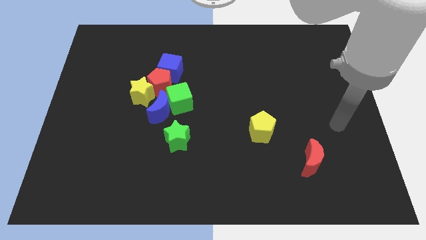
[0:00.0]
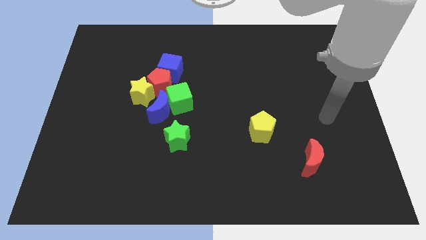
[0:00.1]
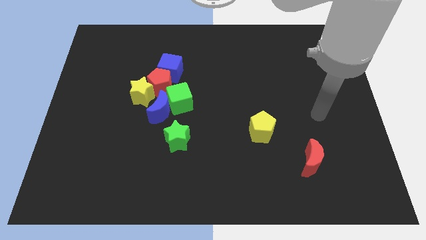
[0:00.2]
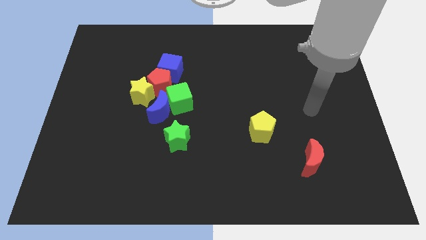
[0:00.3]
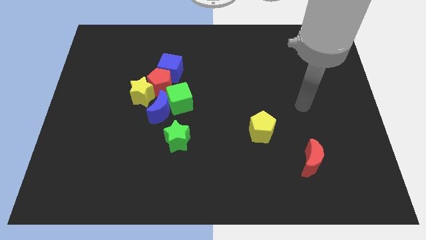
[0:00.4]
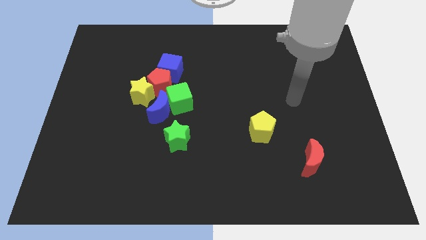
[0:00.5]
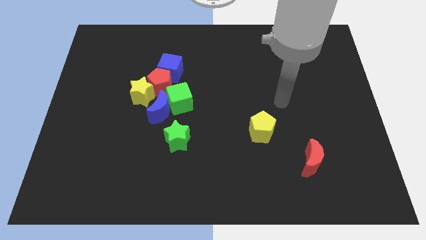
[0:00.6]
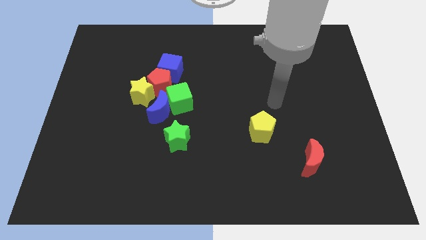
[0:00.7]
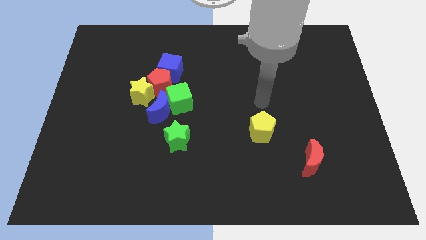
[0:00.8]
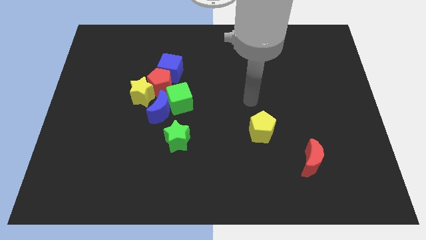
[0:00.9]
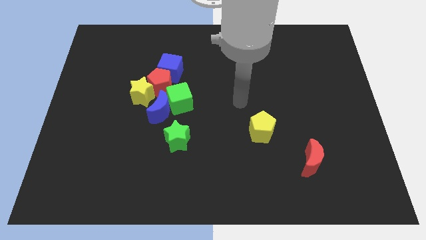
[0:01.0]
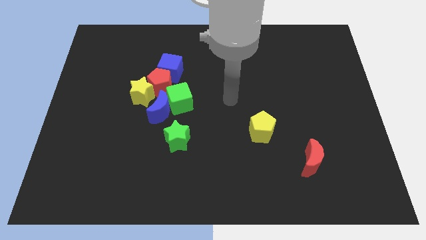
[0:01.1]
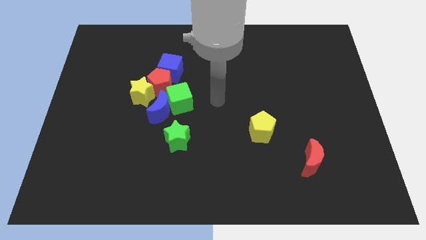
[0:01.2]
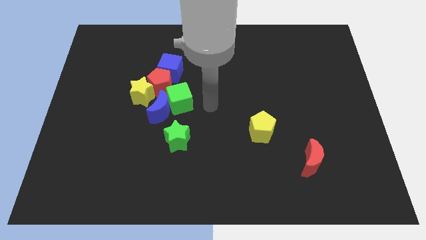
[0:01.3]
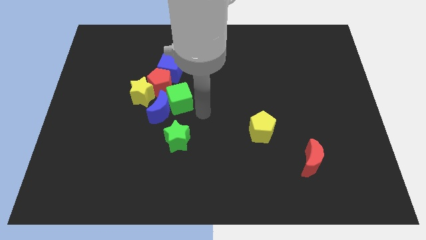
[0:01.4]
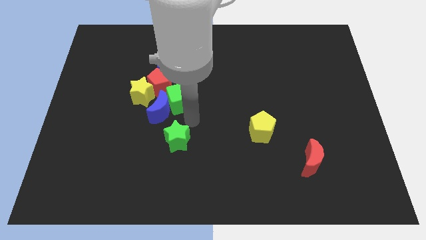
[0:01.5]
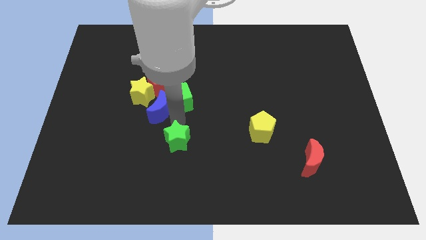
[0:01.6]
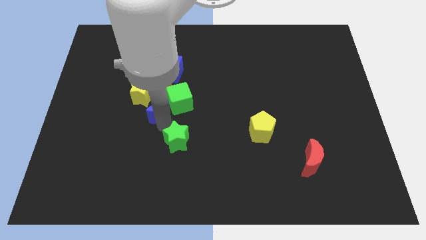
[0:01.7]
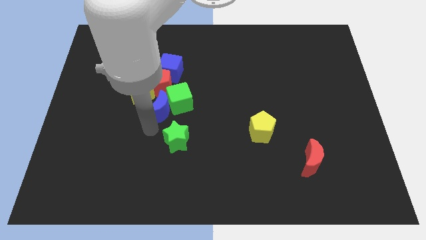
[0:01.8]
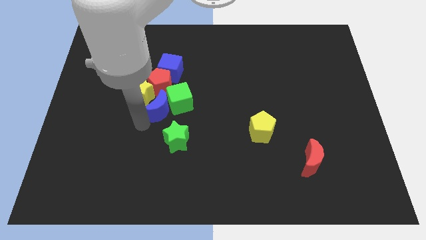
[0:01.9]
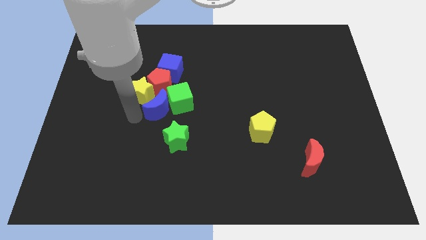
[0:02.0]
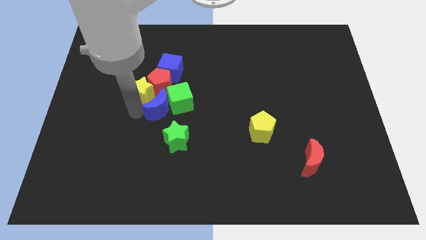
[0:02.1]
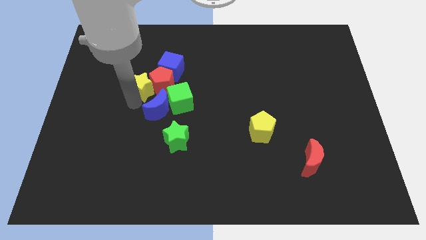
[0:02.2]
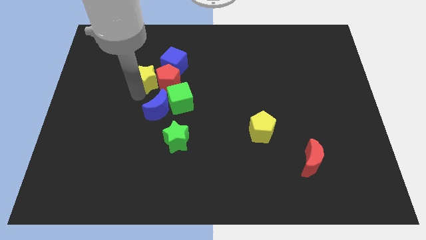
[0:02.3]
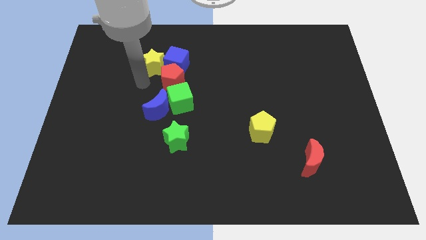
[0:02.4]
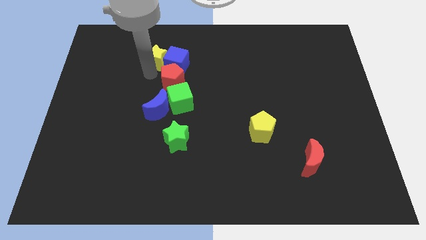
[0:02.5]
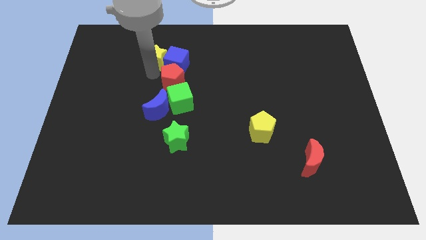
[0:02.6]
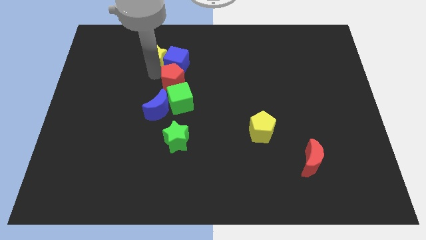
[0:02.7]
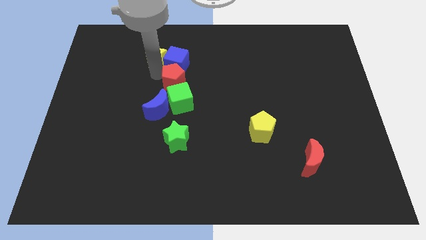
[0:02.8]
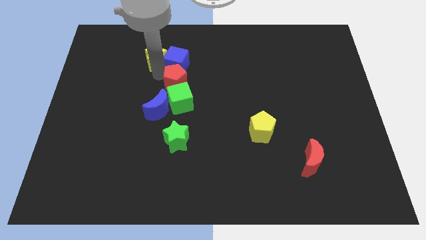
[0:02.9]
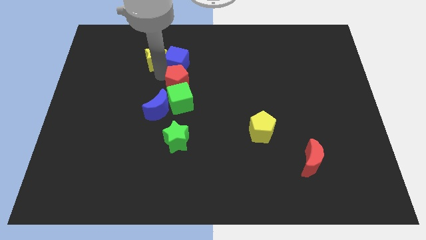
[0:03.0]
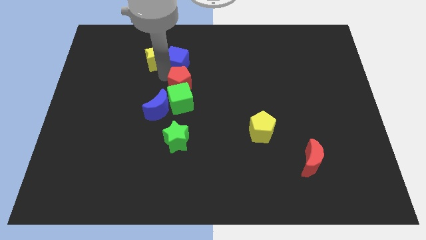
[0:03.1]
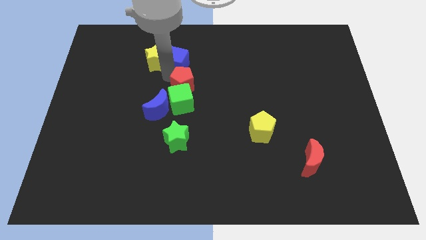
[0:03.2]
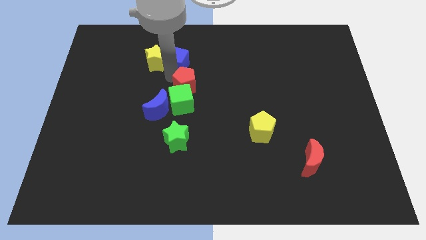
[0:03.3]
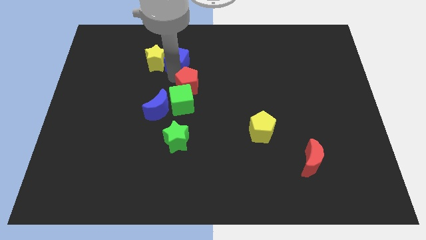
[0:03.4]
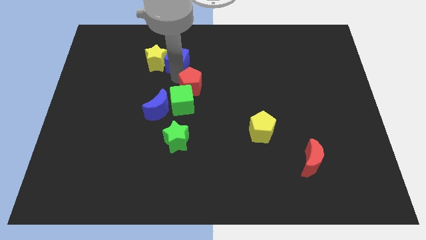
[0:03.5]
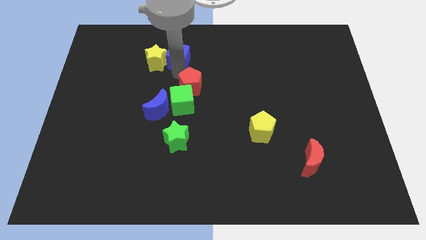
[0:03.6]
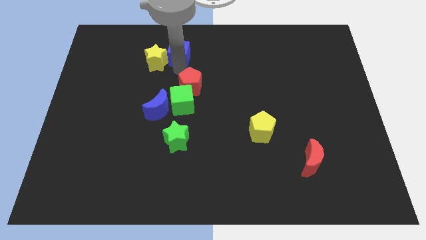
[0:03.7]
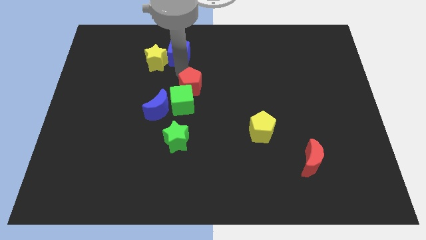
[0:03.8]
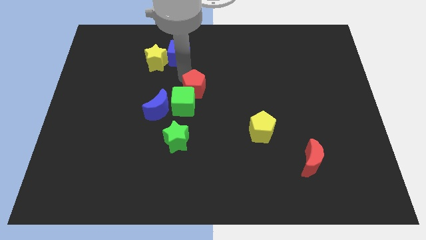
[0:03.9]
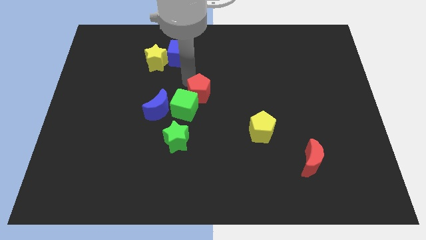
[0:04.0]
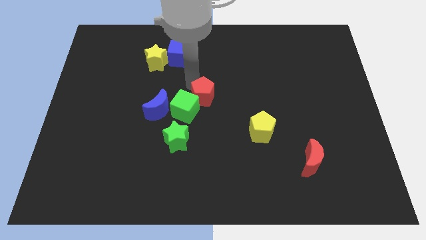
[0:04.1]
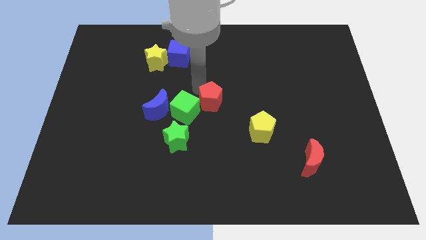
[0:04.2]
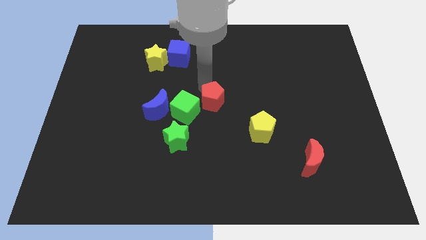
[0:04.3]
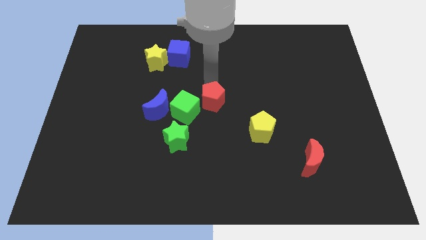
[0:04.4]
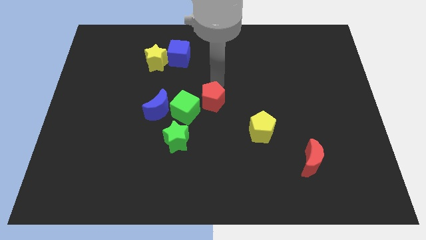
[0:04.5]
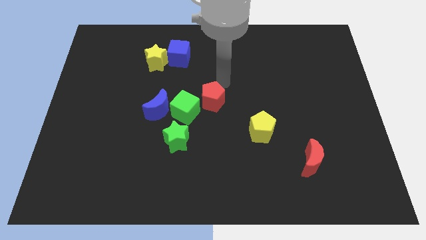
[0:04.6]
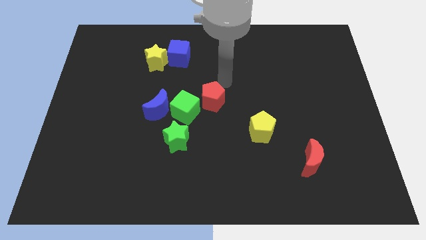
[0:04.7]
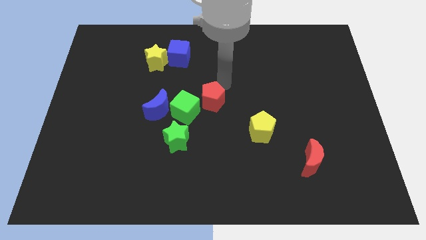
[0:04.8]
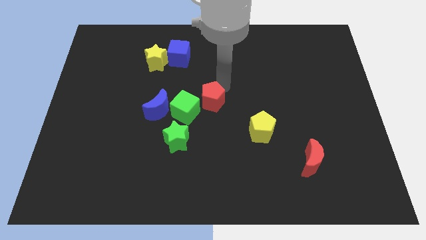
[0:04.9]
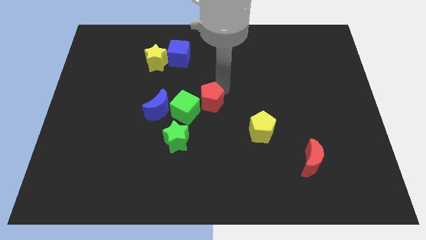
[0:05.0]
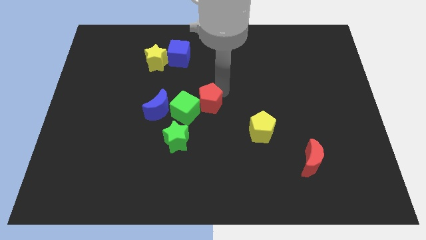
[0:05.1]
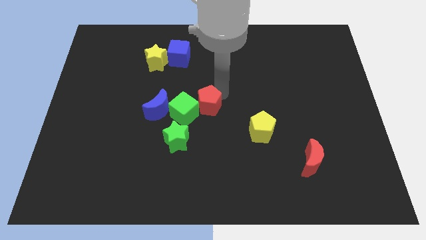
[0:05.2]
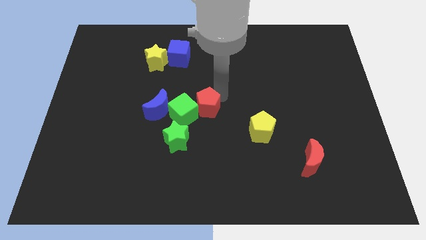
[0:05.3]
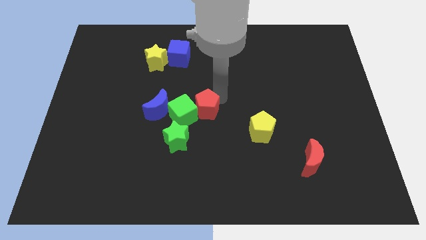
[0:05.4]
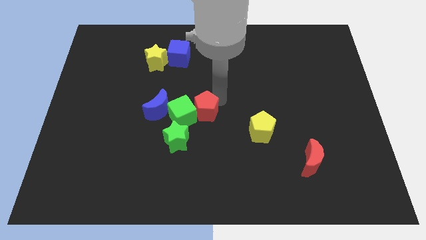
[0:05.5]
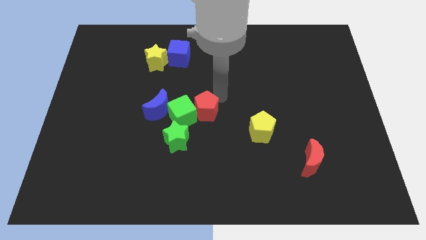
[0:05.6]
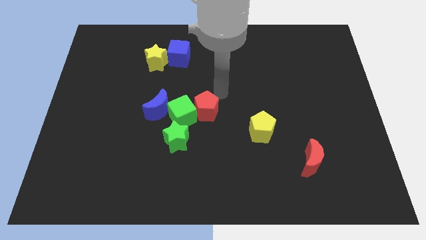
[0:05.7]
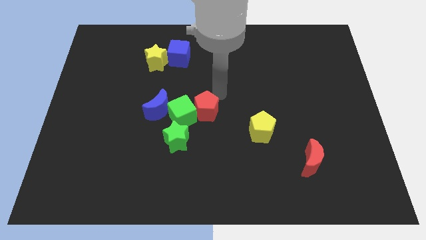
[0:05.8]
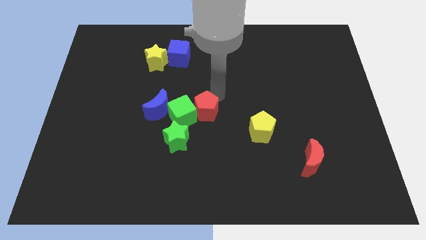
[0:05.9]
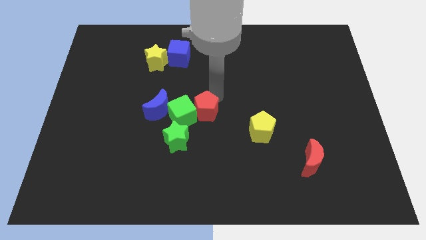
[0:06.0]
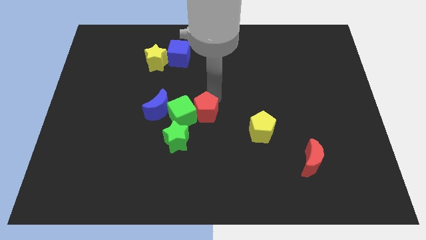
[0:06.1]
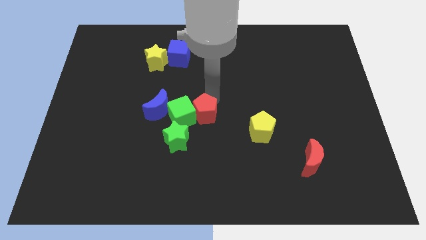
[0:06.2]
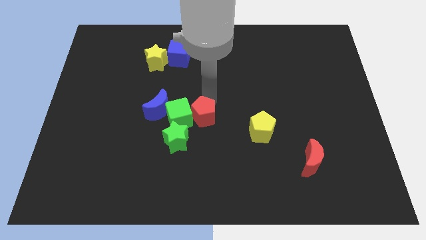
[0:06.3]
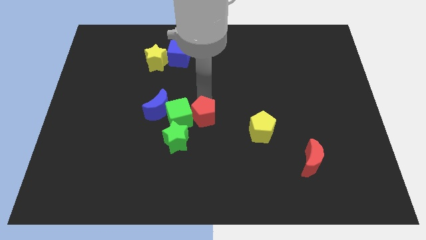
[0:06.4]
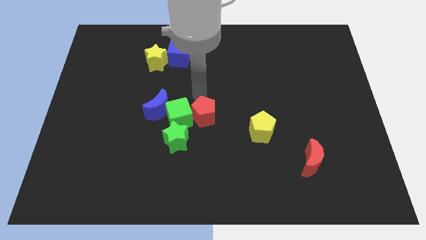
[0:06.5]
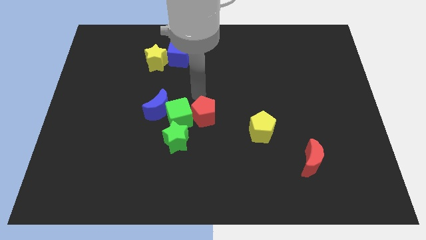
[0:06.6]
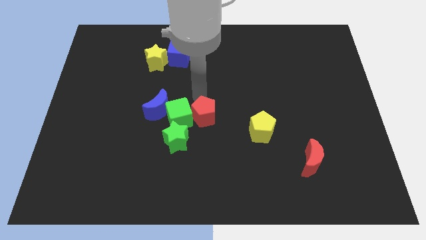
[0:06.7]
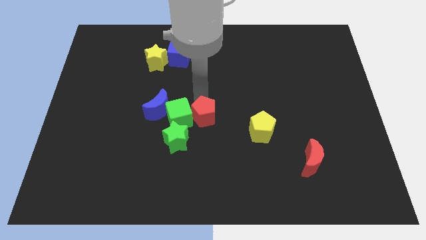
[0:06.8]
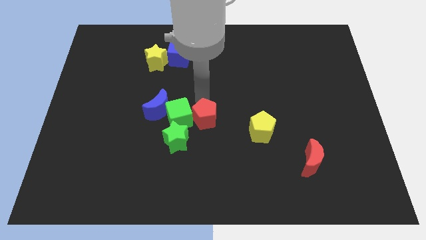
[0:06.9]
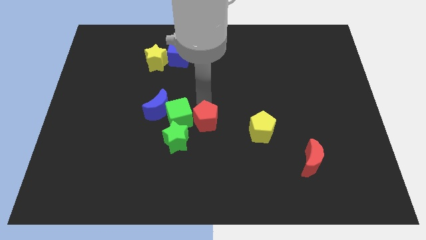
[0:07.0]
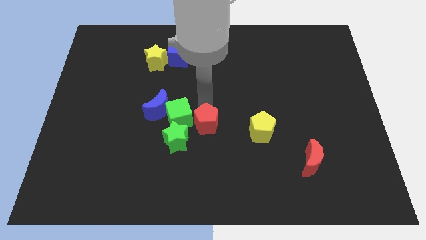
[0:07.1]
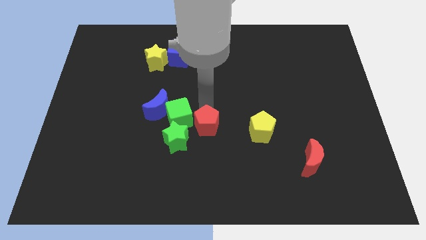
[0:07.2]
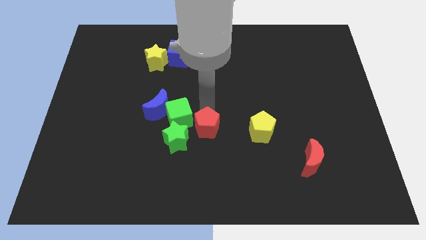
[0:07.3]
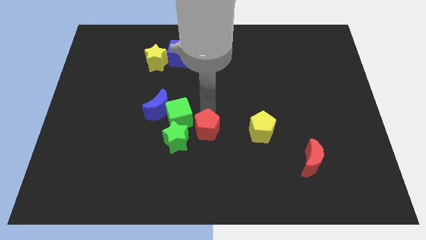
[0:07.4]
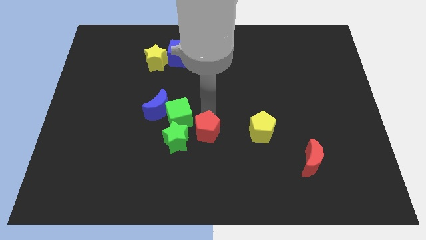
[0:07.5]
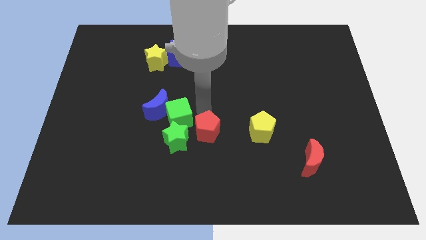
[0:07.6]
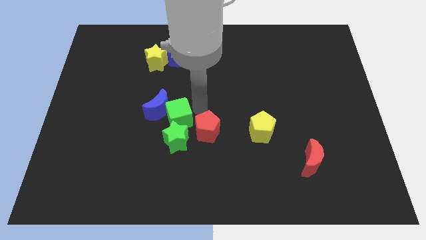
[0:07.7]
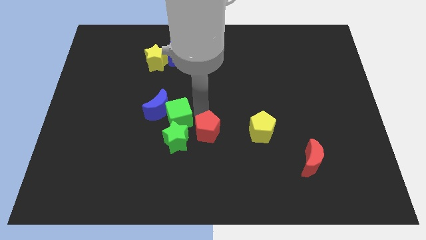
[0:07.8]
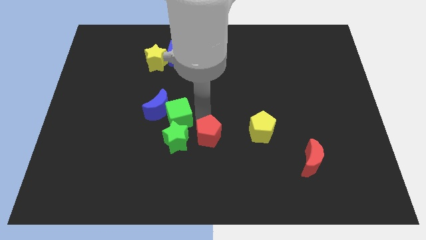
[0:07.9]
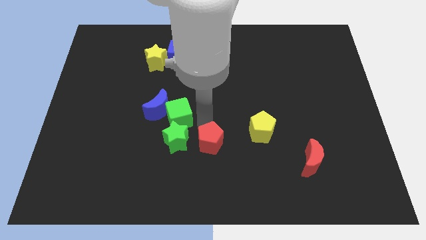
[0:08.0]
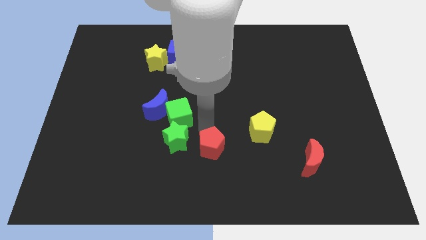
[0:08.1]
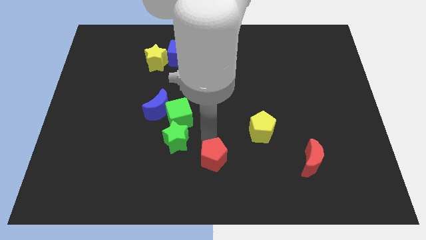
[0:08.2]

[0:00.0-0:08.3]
move the red pentagon to the bottom
